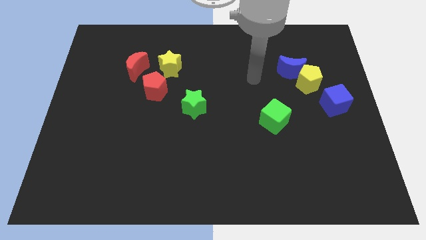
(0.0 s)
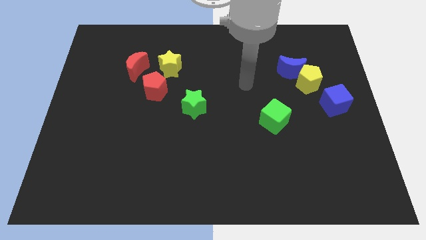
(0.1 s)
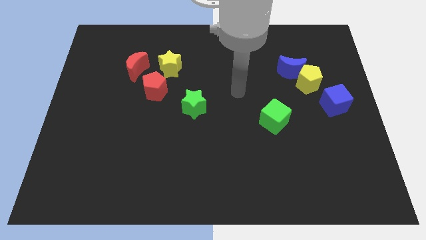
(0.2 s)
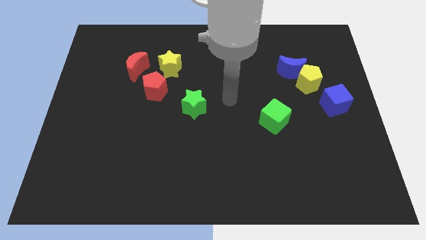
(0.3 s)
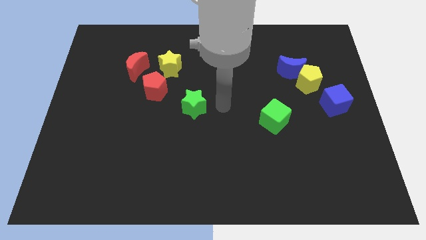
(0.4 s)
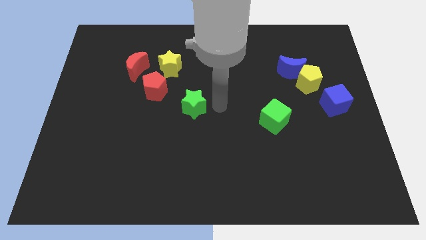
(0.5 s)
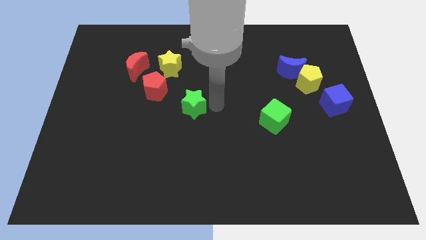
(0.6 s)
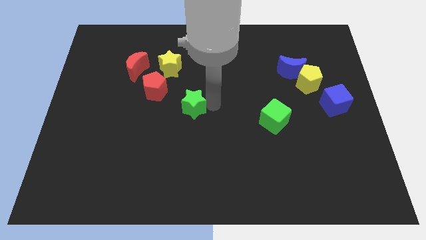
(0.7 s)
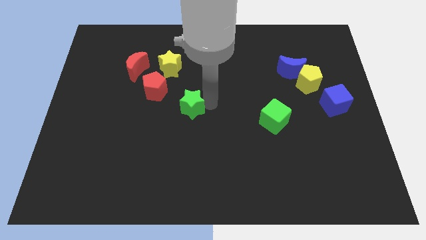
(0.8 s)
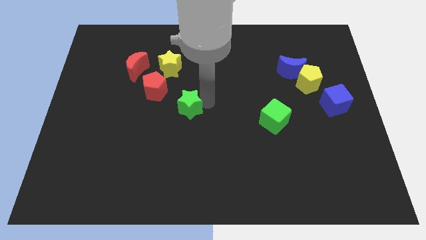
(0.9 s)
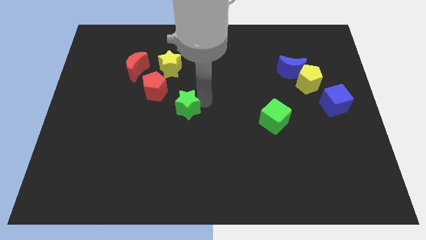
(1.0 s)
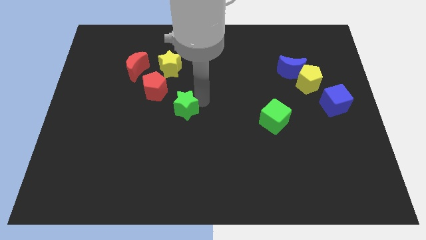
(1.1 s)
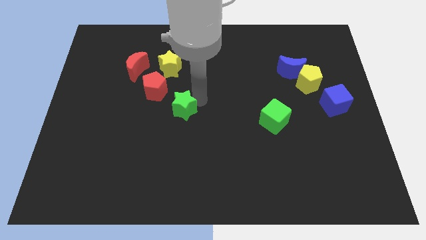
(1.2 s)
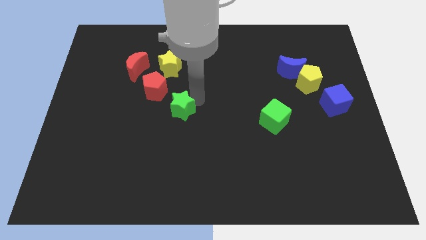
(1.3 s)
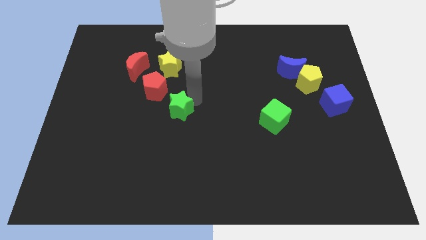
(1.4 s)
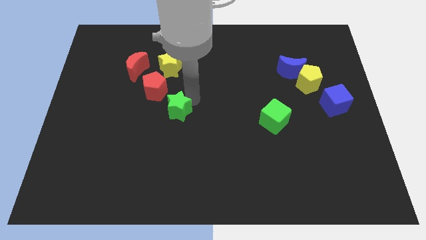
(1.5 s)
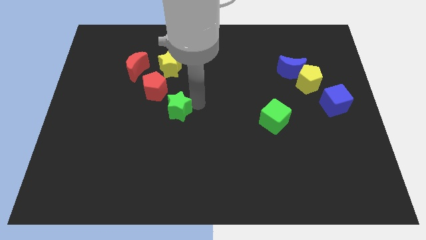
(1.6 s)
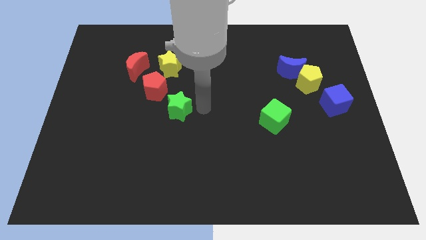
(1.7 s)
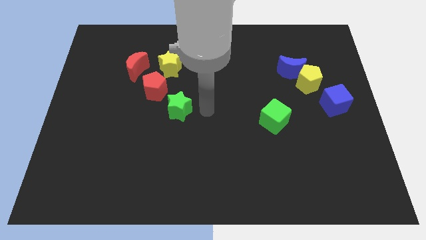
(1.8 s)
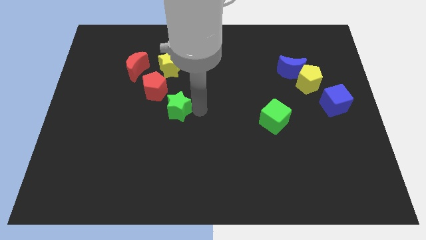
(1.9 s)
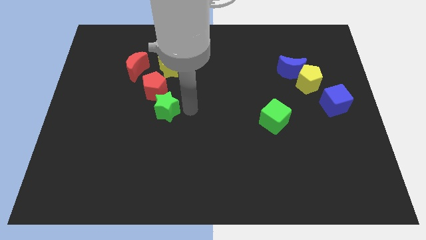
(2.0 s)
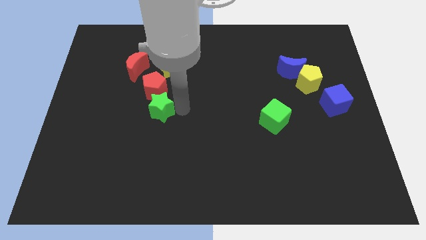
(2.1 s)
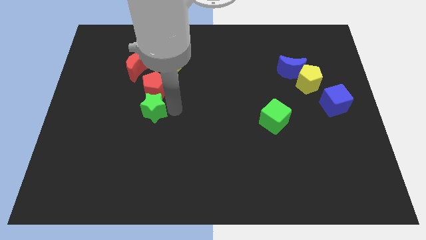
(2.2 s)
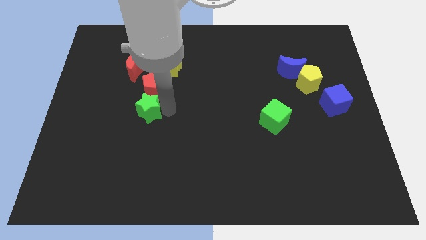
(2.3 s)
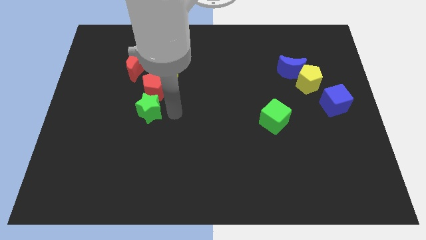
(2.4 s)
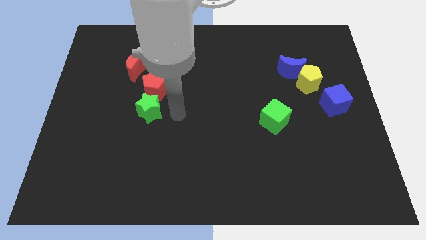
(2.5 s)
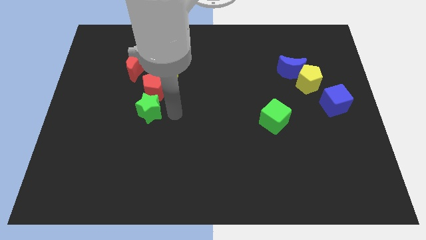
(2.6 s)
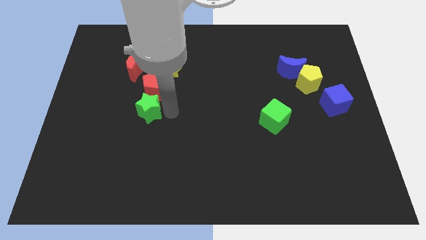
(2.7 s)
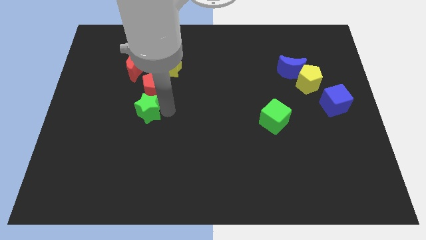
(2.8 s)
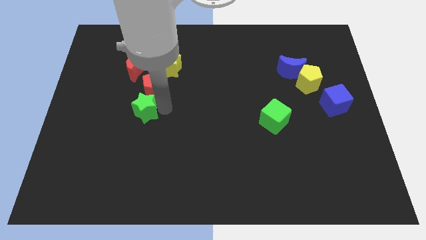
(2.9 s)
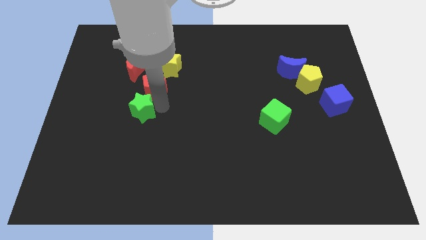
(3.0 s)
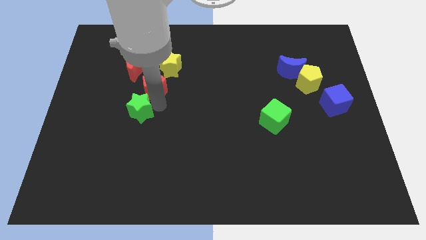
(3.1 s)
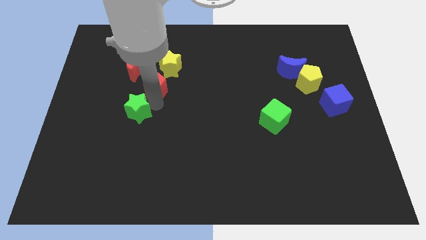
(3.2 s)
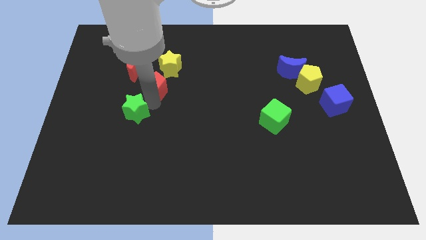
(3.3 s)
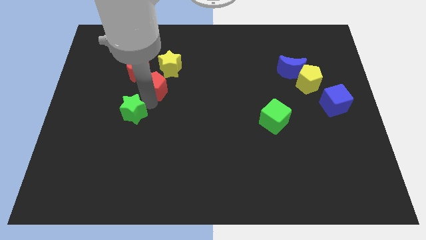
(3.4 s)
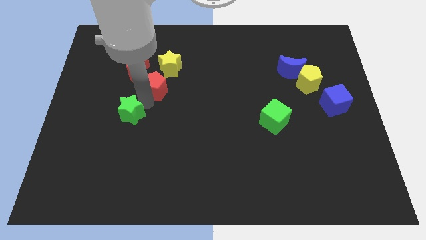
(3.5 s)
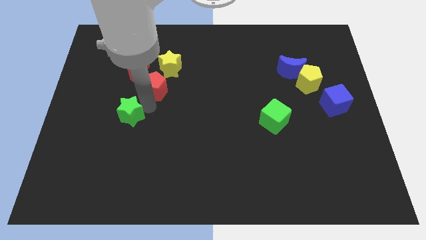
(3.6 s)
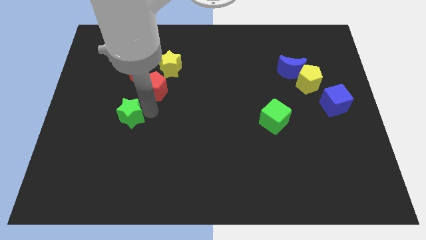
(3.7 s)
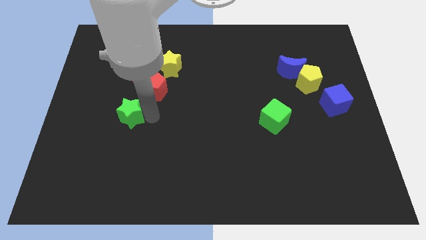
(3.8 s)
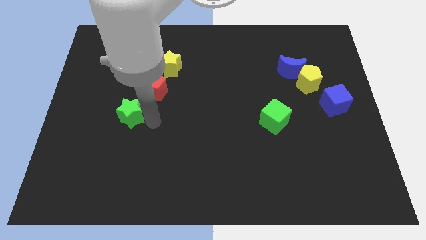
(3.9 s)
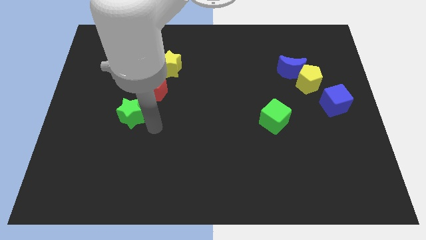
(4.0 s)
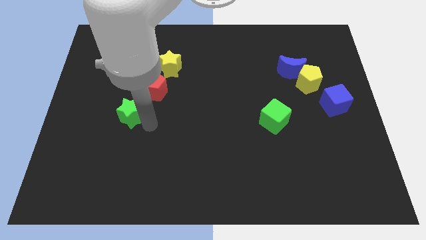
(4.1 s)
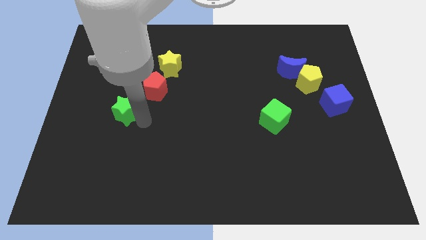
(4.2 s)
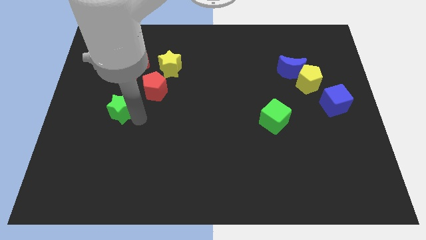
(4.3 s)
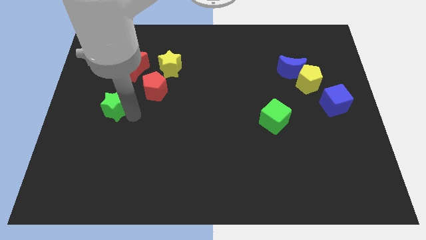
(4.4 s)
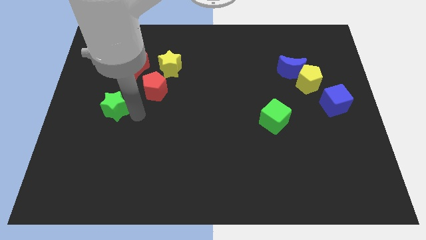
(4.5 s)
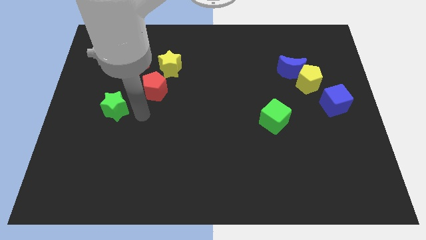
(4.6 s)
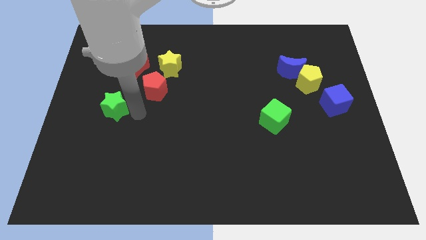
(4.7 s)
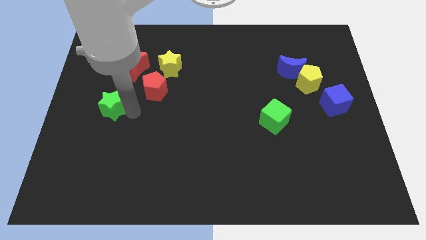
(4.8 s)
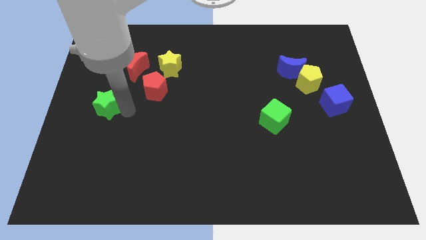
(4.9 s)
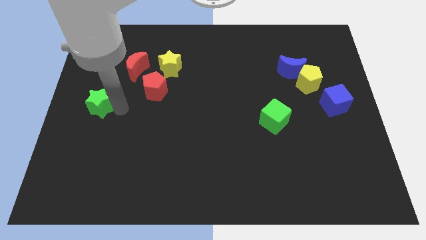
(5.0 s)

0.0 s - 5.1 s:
move the green star to the left side of the board

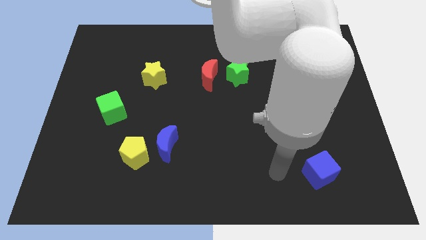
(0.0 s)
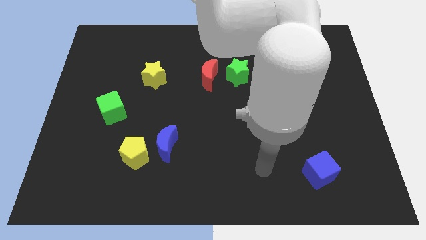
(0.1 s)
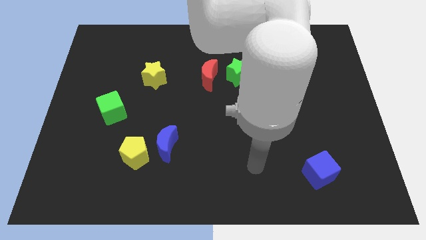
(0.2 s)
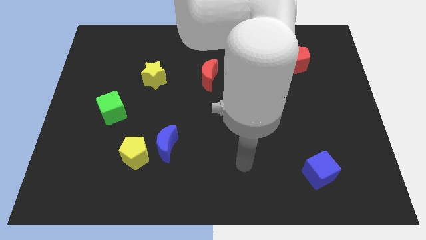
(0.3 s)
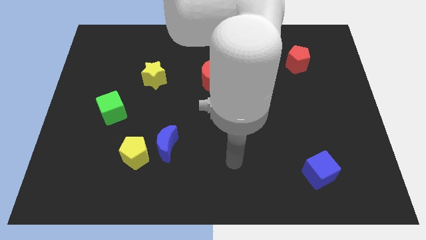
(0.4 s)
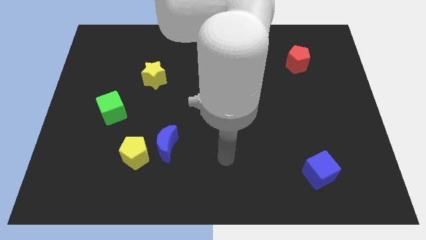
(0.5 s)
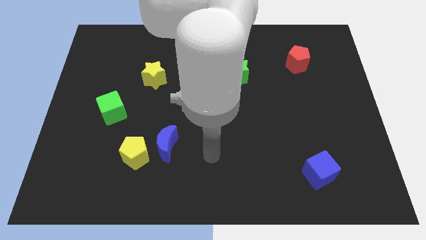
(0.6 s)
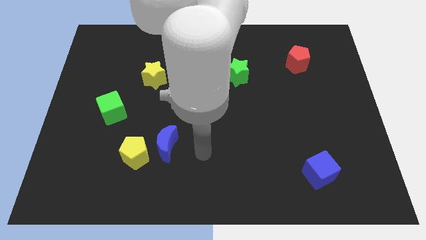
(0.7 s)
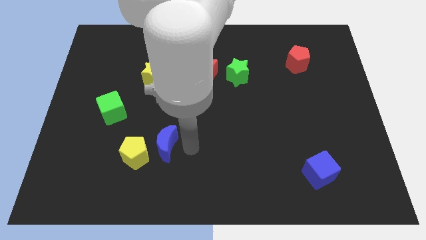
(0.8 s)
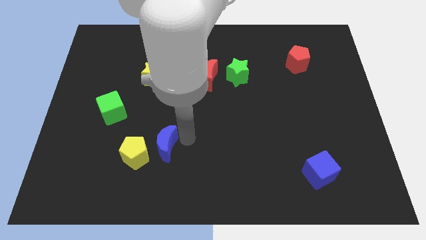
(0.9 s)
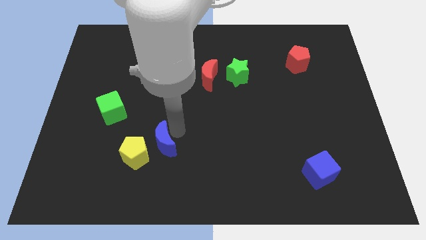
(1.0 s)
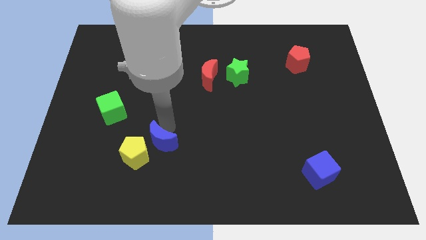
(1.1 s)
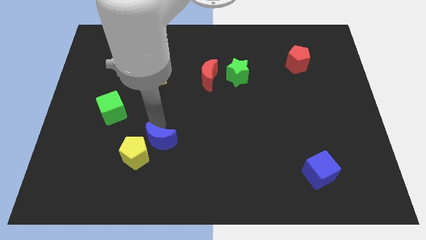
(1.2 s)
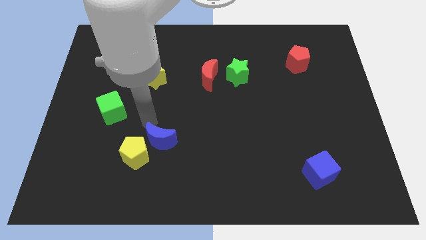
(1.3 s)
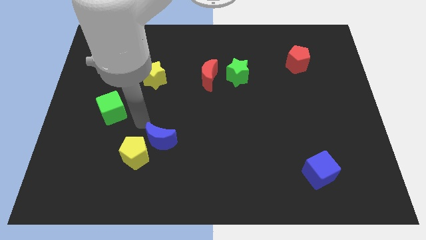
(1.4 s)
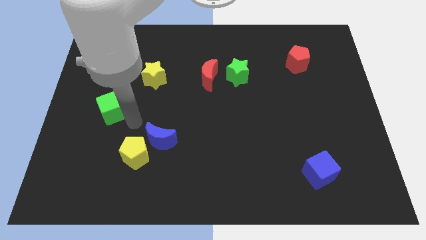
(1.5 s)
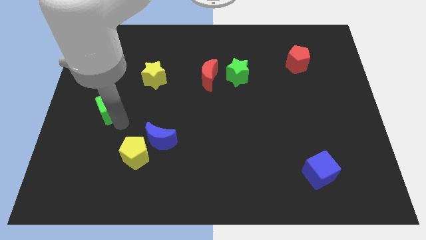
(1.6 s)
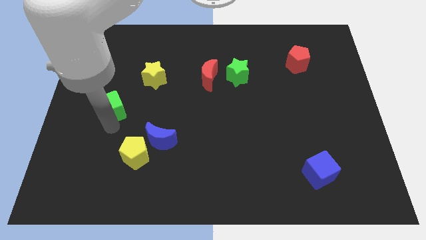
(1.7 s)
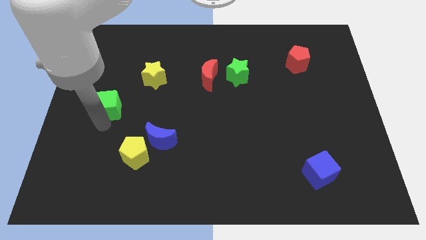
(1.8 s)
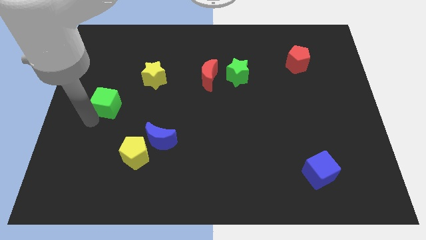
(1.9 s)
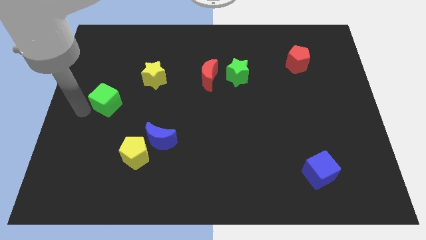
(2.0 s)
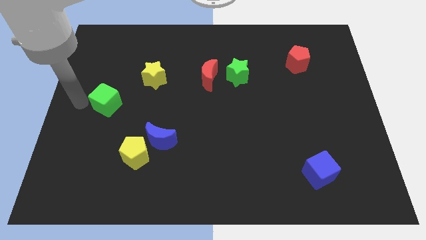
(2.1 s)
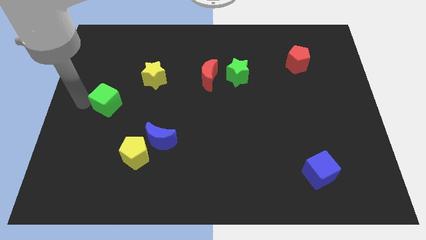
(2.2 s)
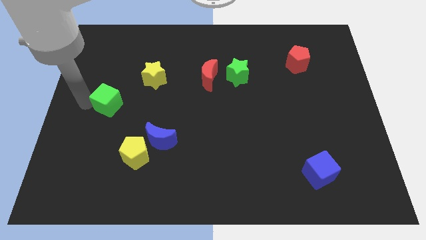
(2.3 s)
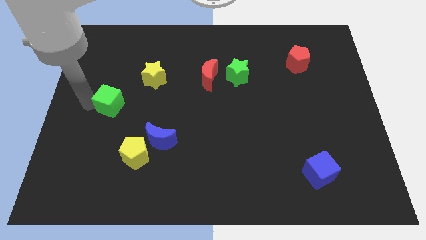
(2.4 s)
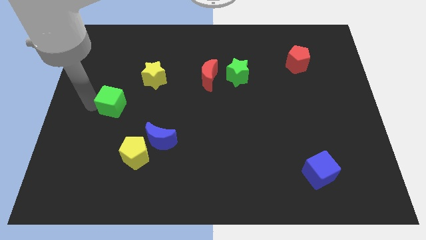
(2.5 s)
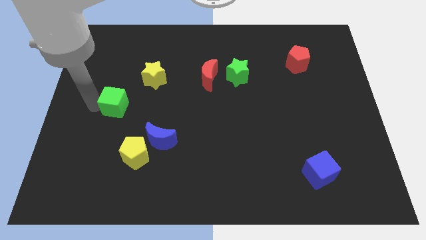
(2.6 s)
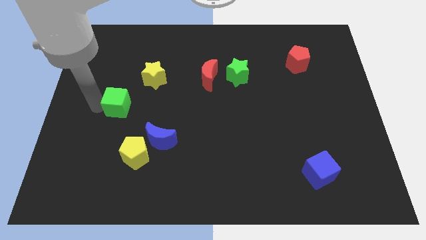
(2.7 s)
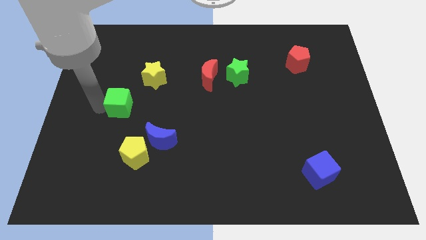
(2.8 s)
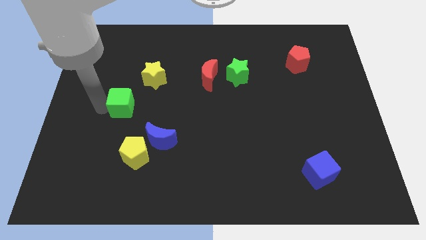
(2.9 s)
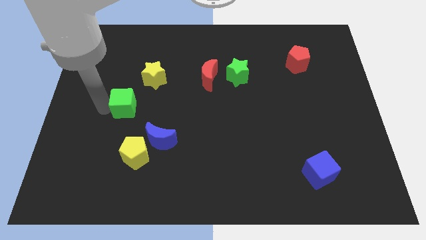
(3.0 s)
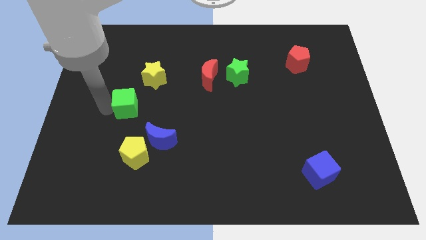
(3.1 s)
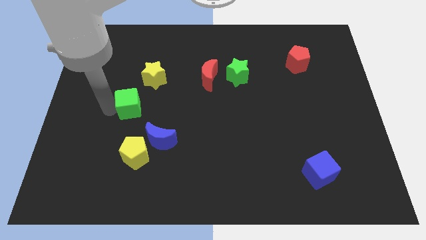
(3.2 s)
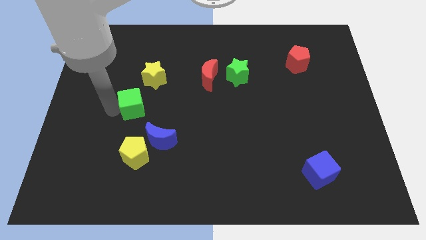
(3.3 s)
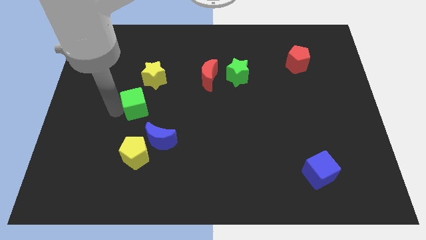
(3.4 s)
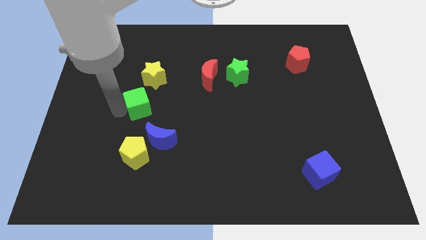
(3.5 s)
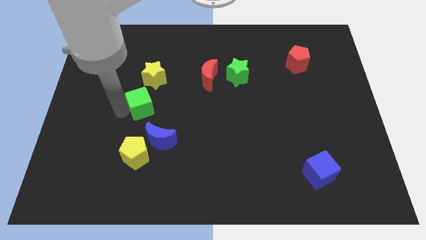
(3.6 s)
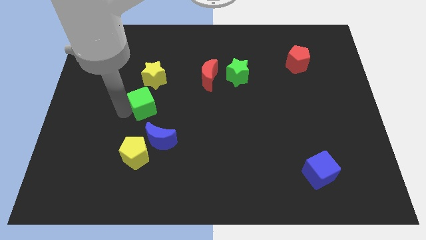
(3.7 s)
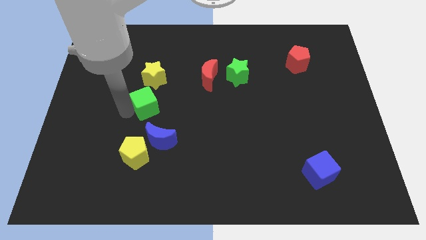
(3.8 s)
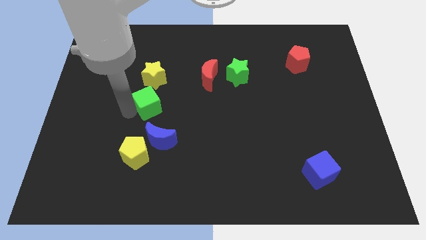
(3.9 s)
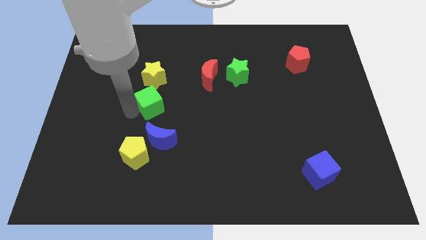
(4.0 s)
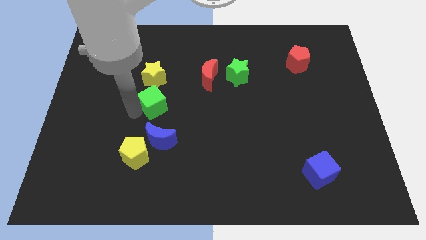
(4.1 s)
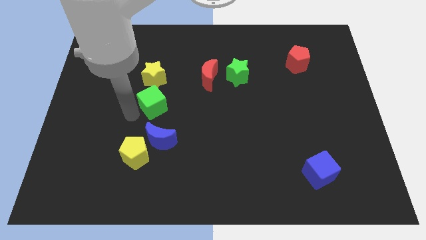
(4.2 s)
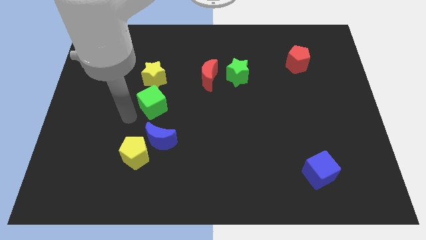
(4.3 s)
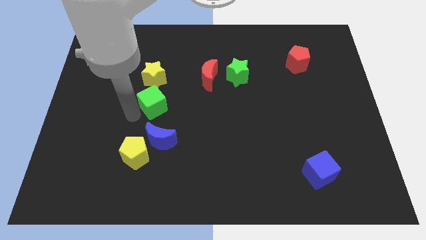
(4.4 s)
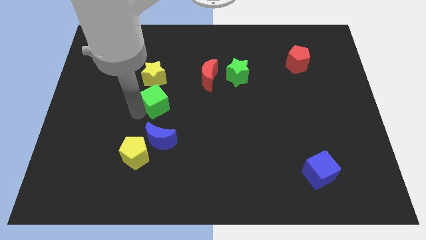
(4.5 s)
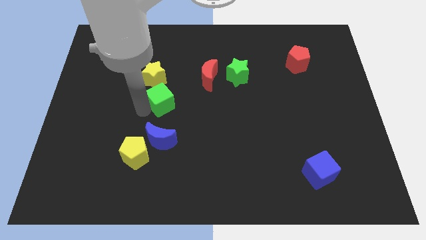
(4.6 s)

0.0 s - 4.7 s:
slide the green cube to the middle
